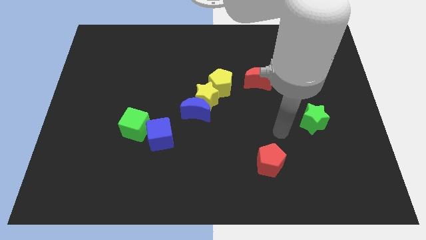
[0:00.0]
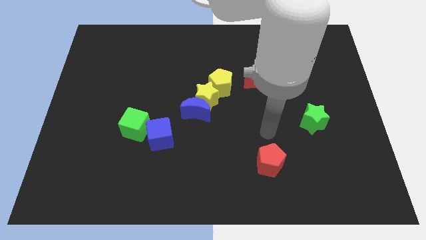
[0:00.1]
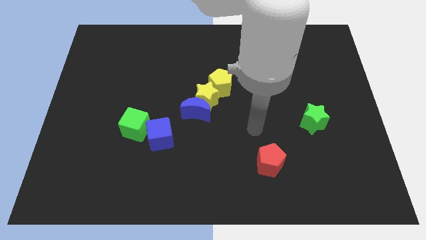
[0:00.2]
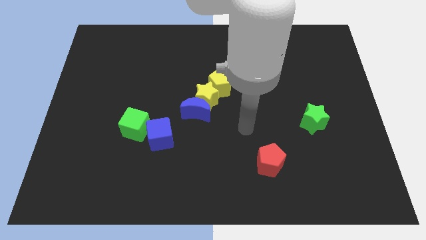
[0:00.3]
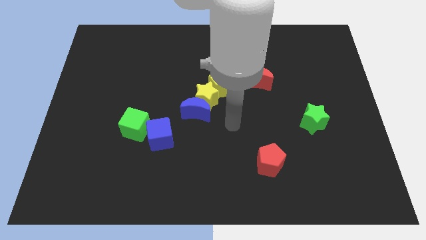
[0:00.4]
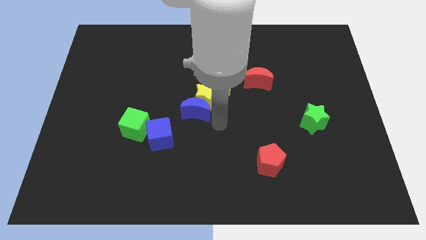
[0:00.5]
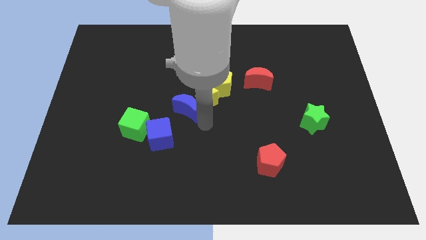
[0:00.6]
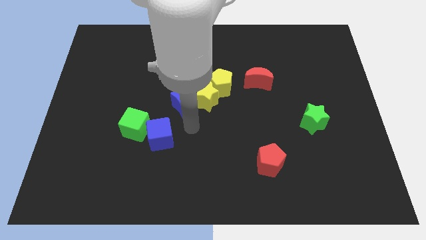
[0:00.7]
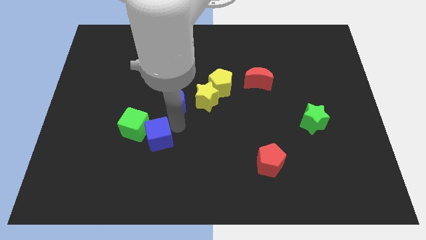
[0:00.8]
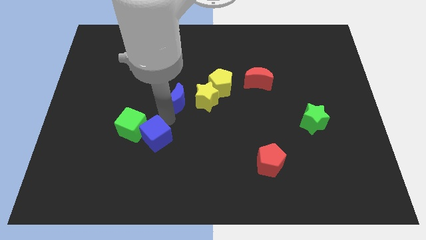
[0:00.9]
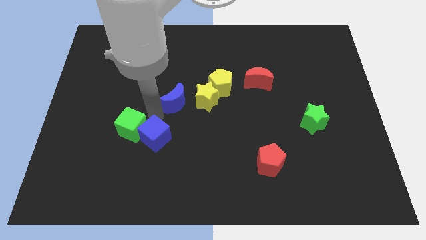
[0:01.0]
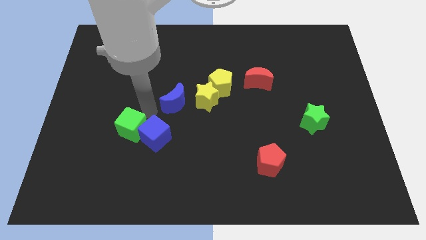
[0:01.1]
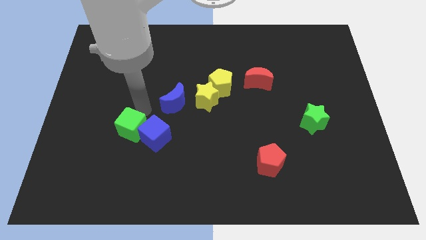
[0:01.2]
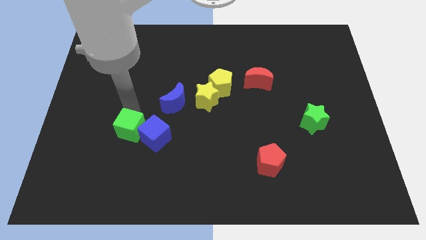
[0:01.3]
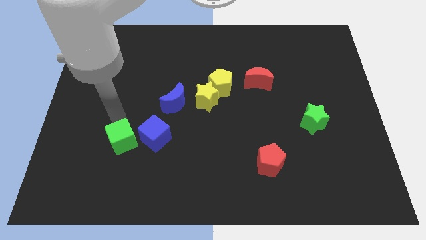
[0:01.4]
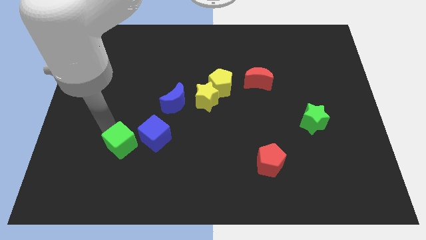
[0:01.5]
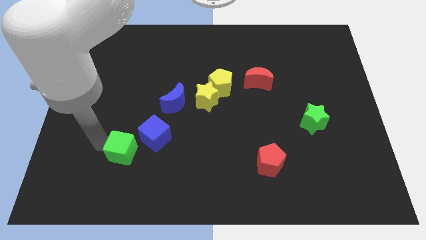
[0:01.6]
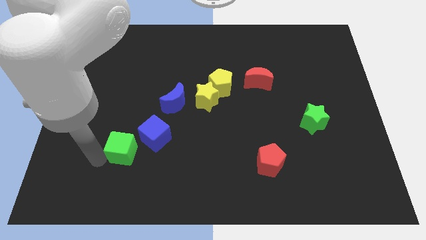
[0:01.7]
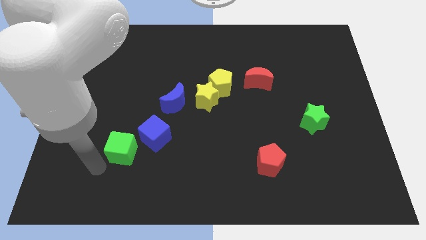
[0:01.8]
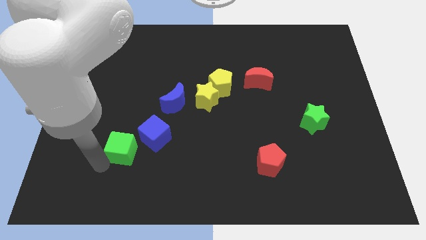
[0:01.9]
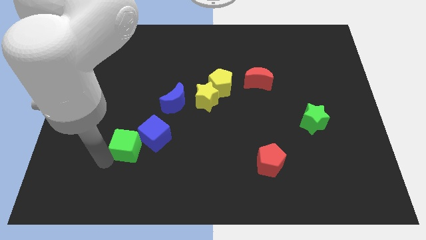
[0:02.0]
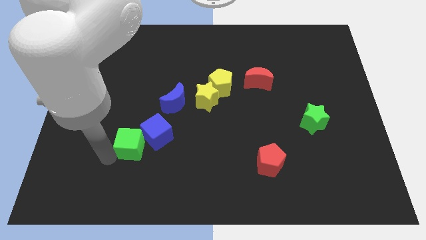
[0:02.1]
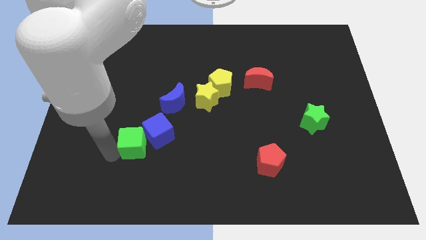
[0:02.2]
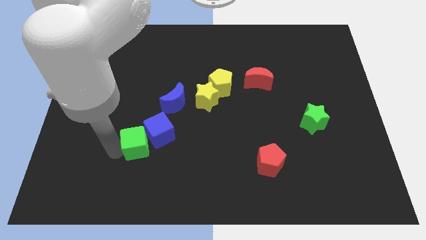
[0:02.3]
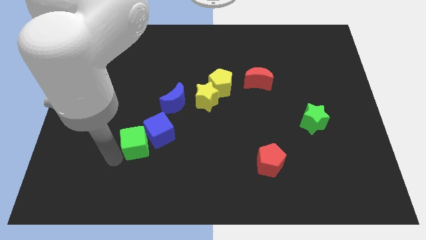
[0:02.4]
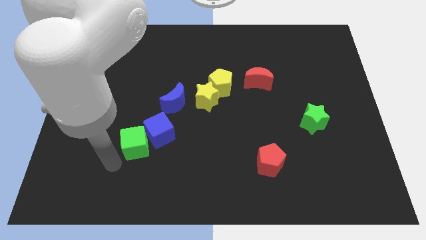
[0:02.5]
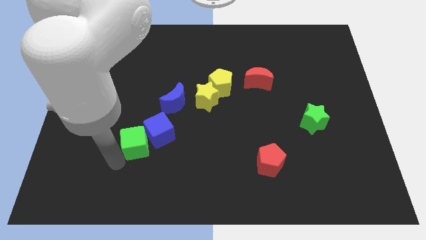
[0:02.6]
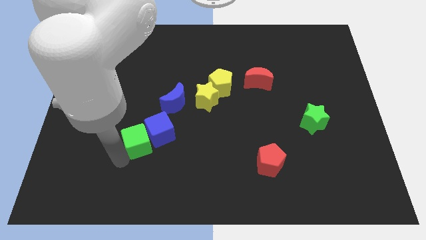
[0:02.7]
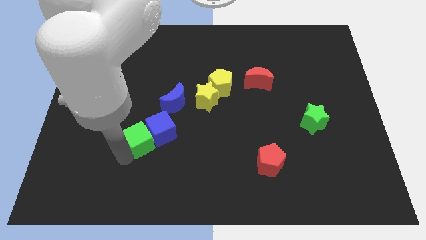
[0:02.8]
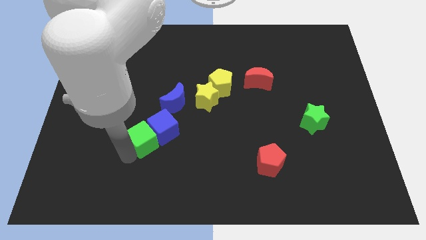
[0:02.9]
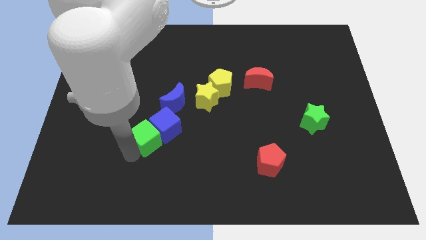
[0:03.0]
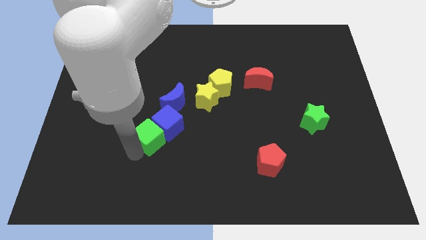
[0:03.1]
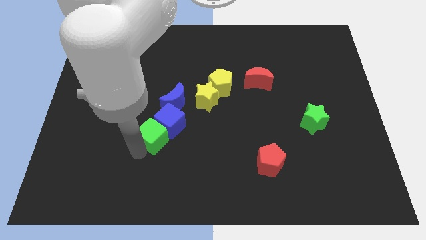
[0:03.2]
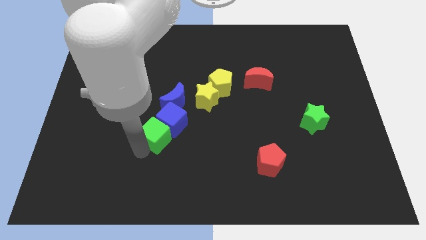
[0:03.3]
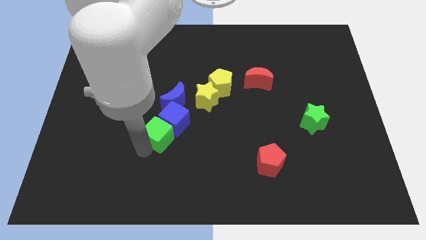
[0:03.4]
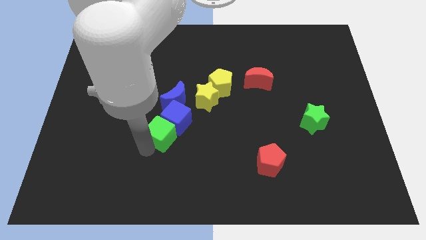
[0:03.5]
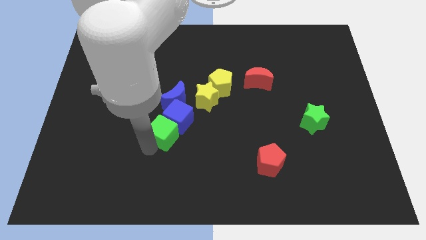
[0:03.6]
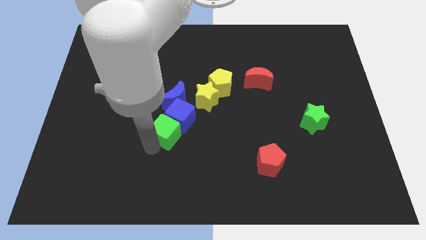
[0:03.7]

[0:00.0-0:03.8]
push the green cube to the right slightly

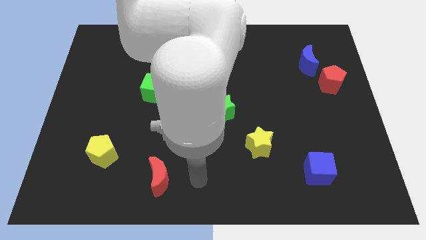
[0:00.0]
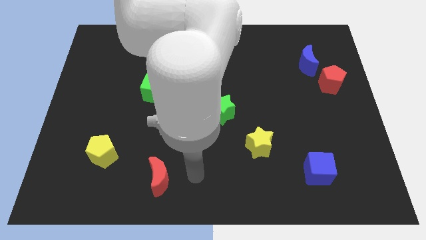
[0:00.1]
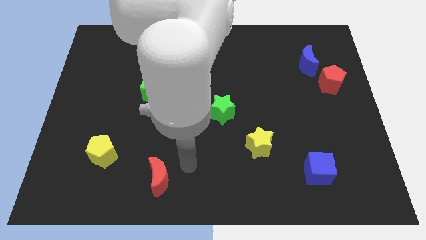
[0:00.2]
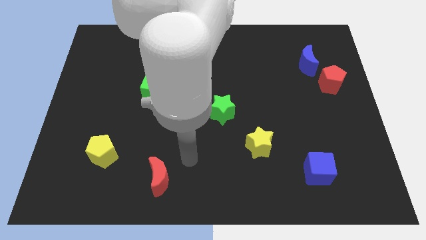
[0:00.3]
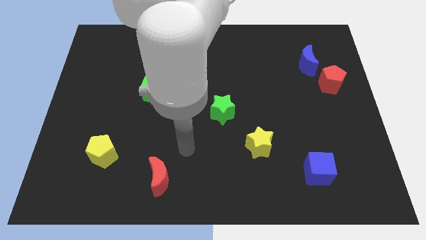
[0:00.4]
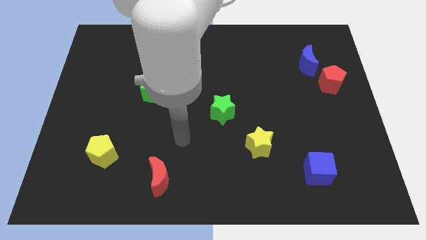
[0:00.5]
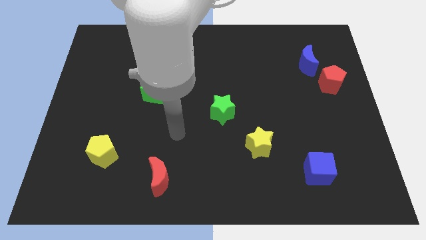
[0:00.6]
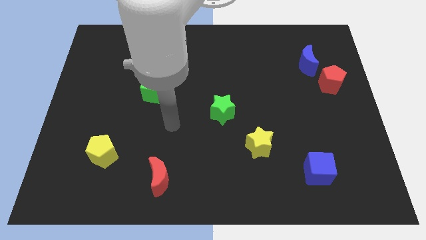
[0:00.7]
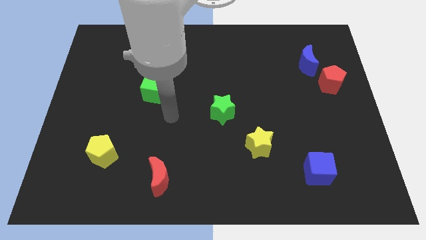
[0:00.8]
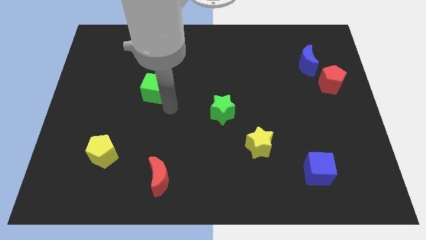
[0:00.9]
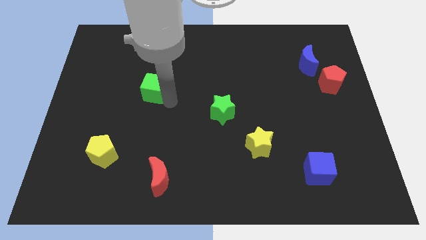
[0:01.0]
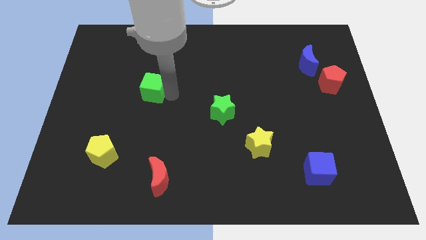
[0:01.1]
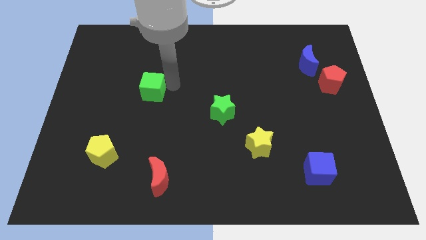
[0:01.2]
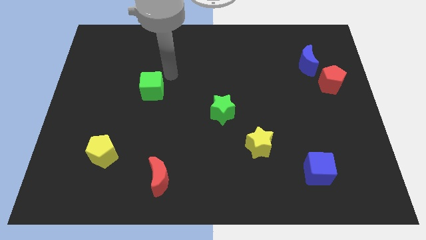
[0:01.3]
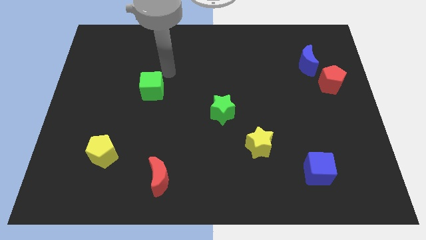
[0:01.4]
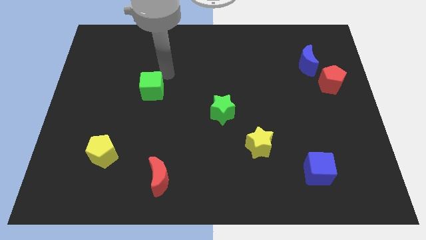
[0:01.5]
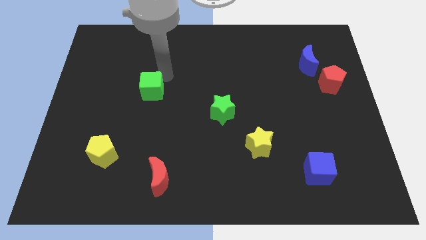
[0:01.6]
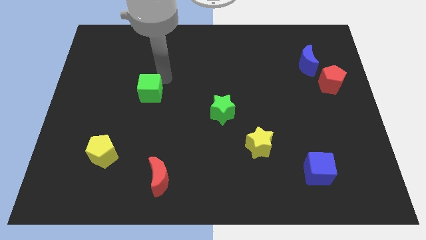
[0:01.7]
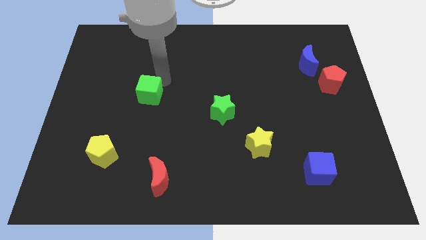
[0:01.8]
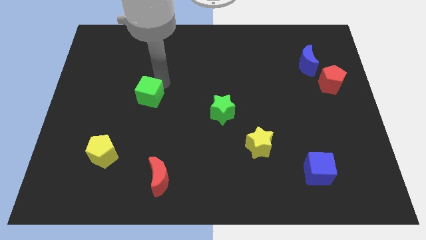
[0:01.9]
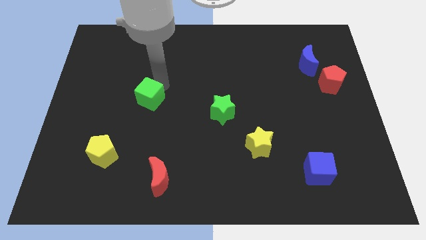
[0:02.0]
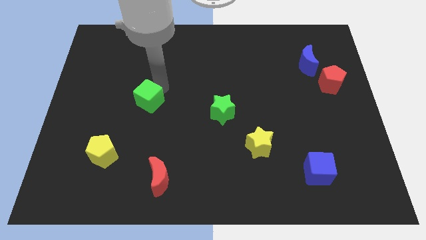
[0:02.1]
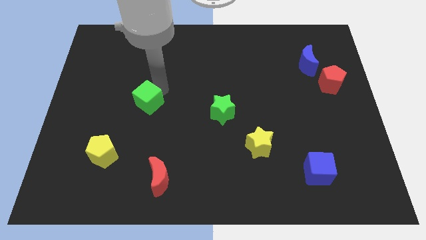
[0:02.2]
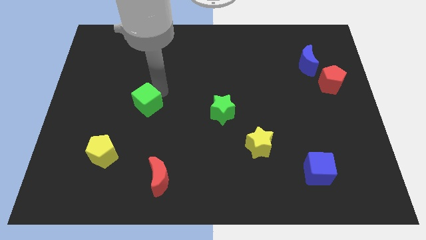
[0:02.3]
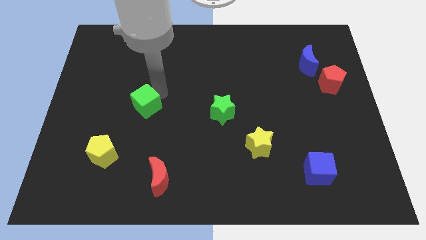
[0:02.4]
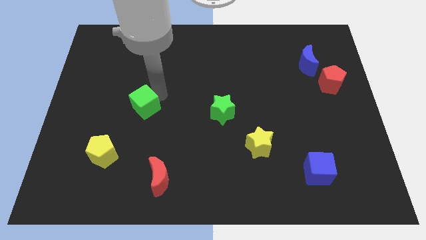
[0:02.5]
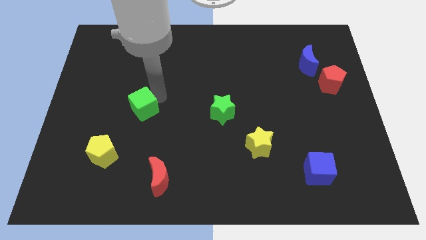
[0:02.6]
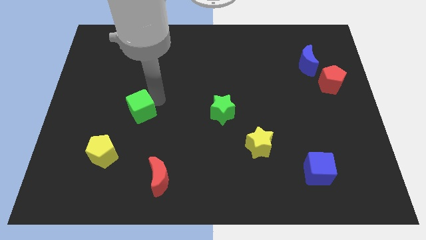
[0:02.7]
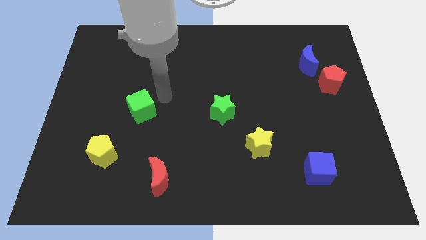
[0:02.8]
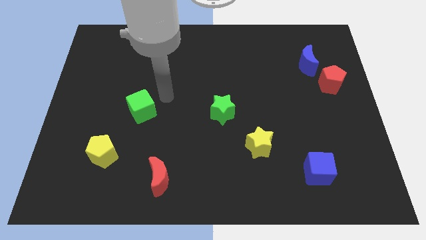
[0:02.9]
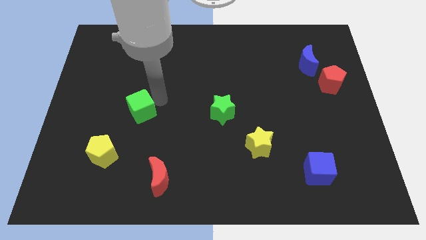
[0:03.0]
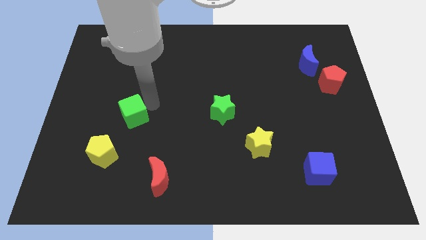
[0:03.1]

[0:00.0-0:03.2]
slide the green cube somewhat down and left

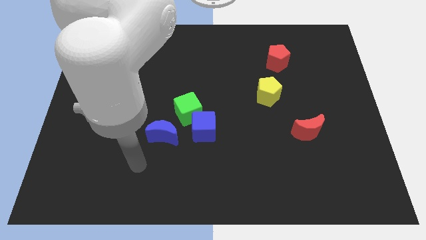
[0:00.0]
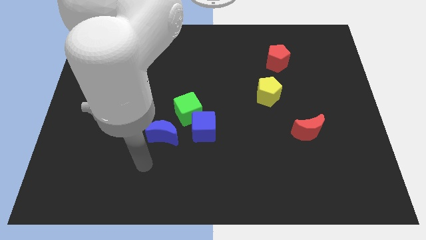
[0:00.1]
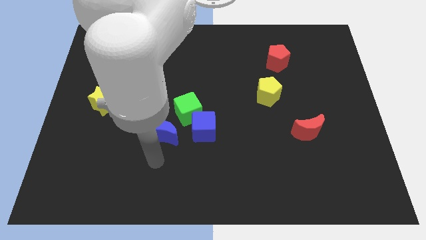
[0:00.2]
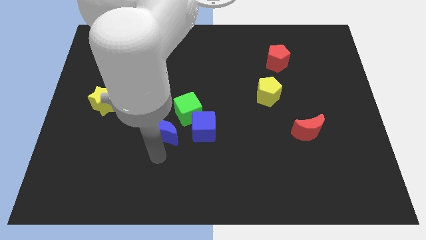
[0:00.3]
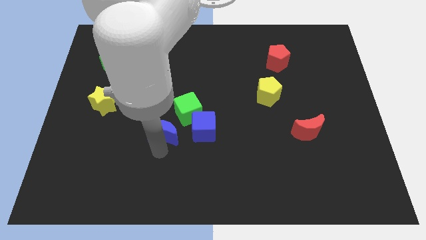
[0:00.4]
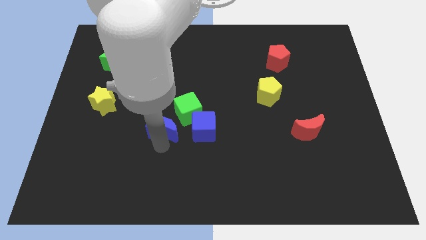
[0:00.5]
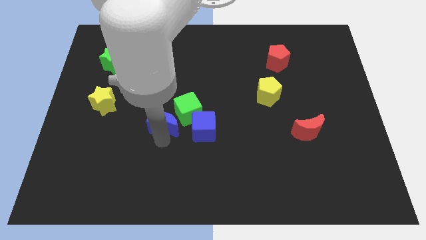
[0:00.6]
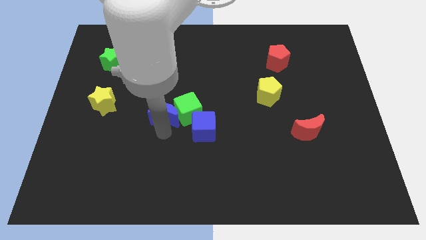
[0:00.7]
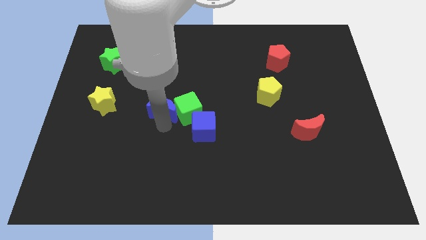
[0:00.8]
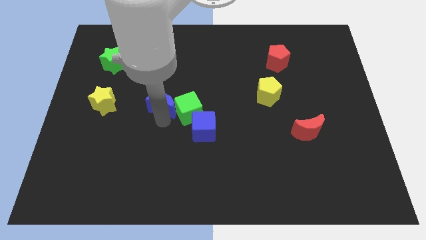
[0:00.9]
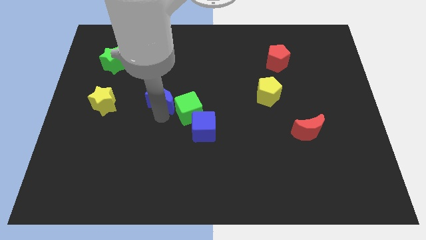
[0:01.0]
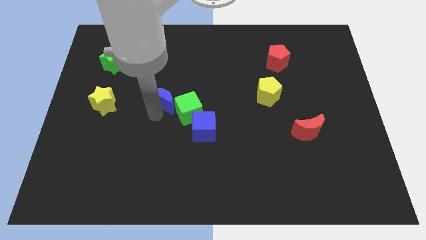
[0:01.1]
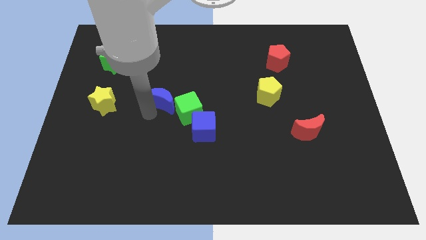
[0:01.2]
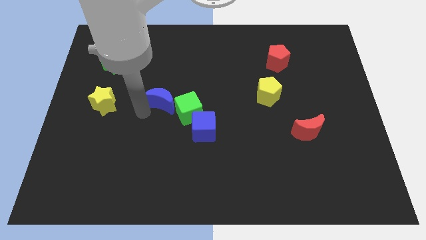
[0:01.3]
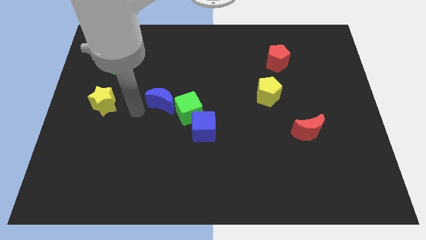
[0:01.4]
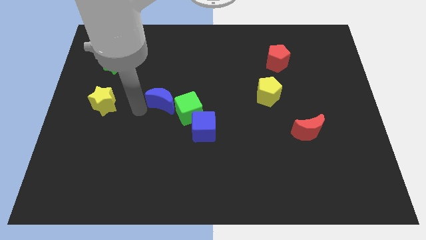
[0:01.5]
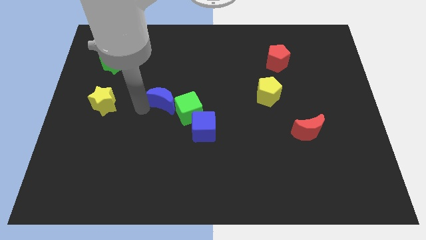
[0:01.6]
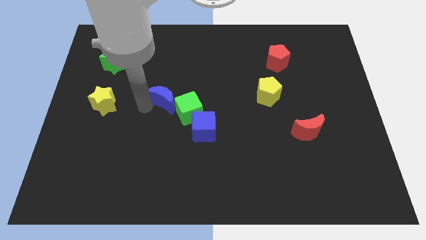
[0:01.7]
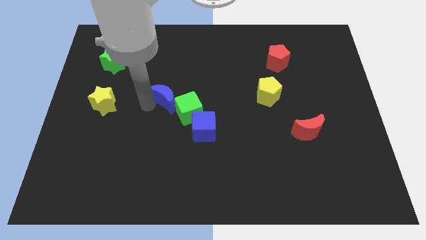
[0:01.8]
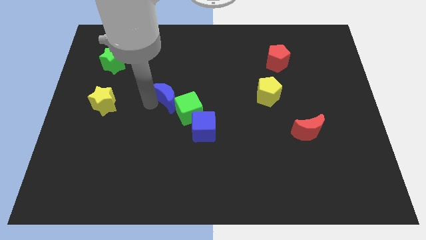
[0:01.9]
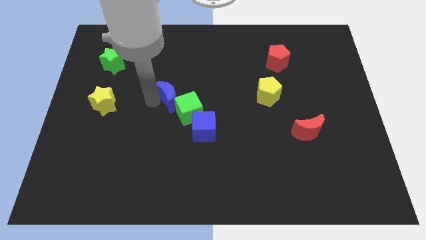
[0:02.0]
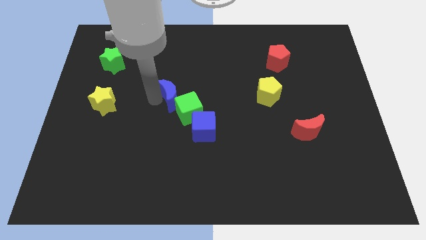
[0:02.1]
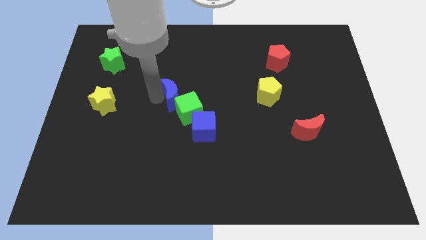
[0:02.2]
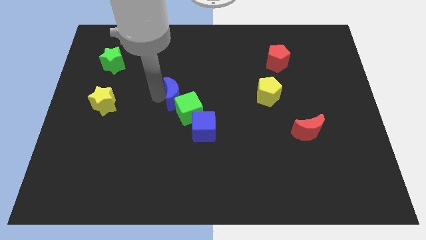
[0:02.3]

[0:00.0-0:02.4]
slightly push the blue moon upwards and to the right diagonally
